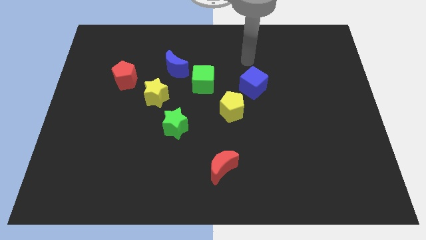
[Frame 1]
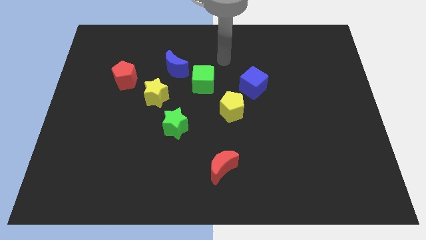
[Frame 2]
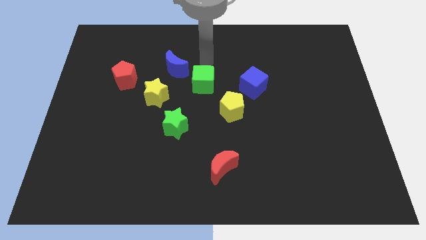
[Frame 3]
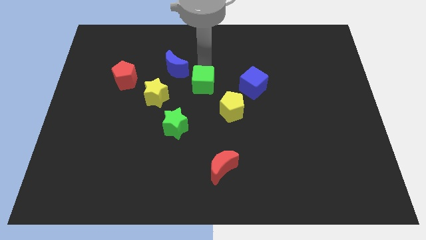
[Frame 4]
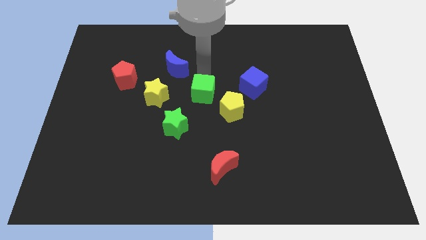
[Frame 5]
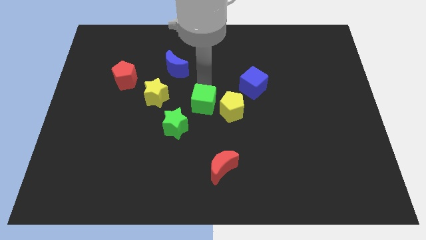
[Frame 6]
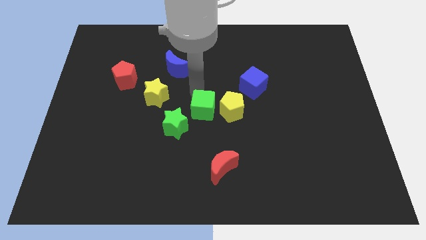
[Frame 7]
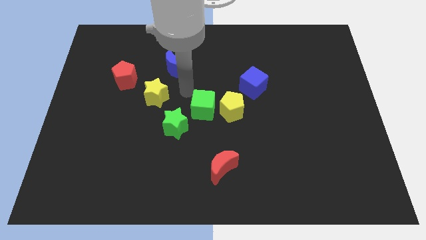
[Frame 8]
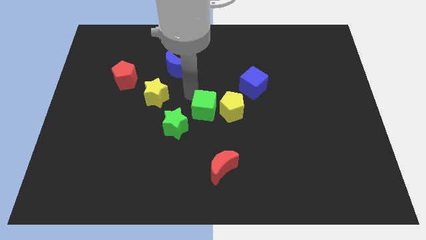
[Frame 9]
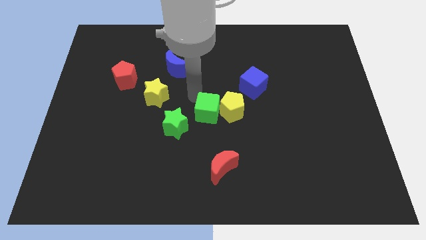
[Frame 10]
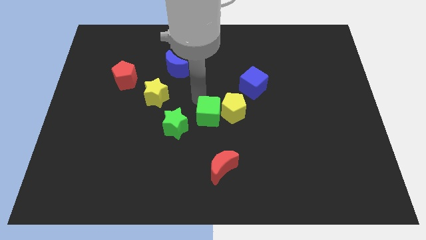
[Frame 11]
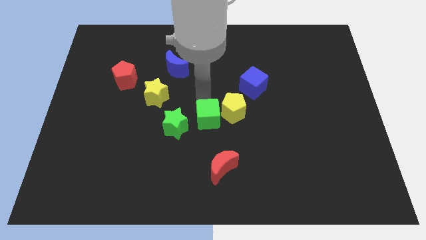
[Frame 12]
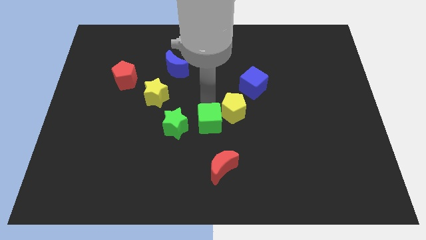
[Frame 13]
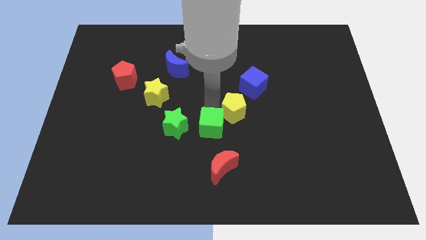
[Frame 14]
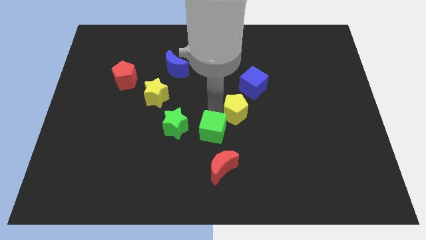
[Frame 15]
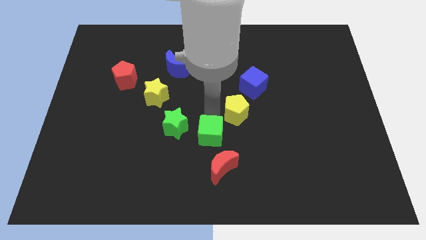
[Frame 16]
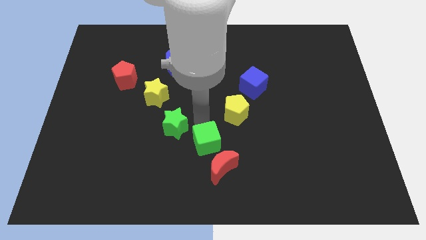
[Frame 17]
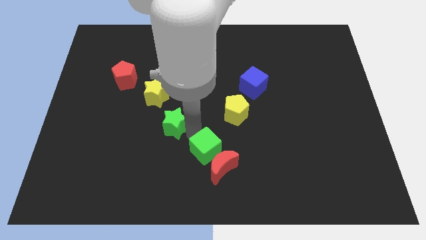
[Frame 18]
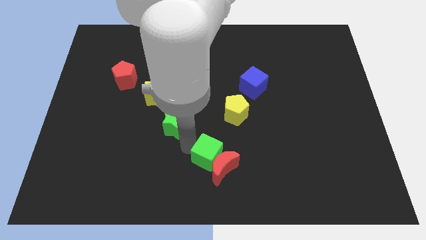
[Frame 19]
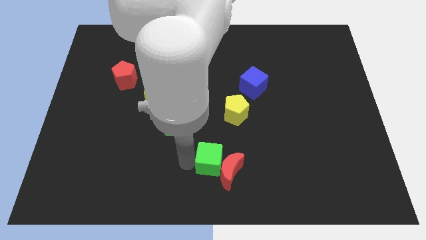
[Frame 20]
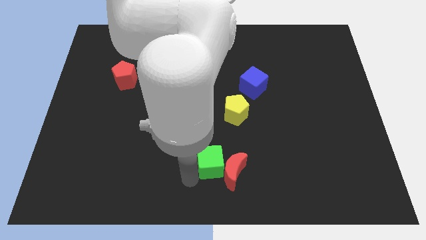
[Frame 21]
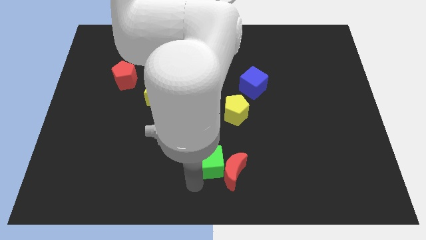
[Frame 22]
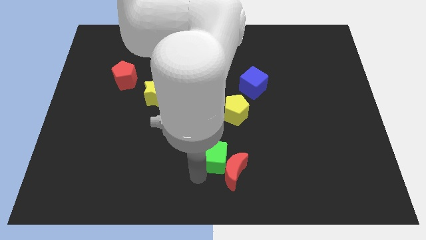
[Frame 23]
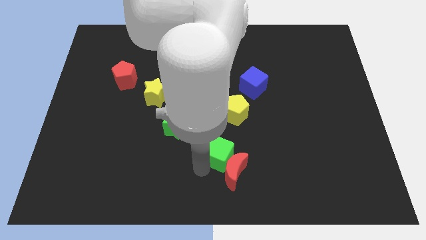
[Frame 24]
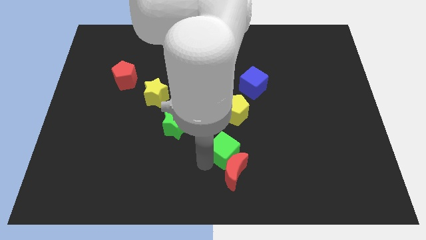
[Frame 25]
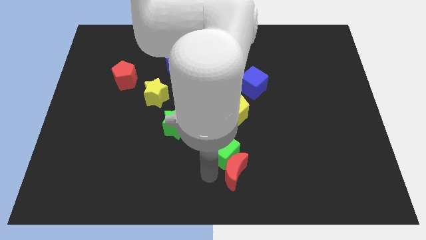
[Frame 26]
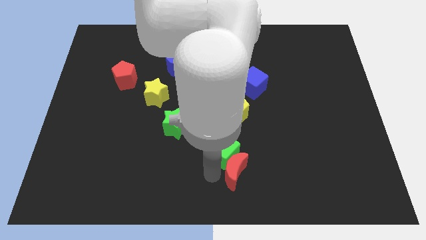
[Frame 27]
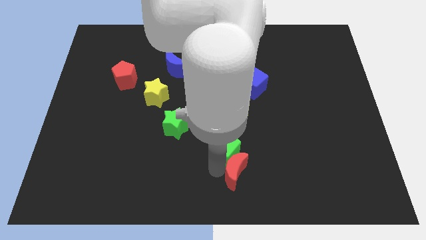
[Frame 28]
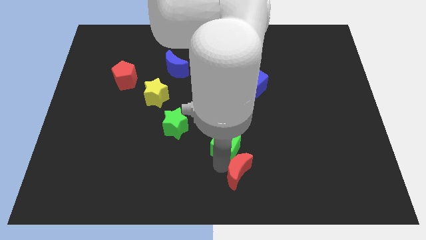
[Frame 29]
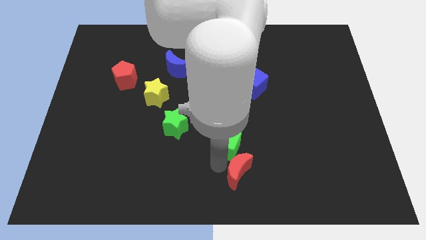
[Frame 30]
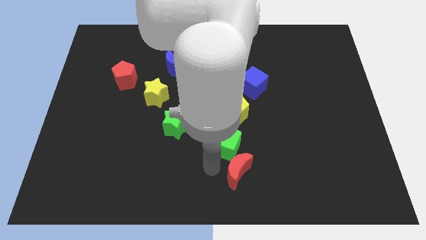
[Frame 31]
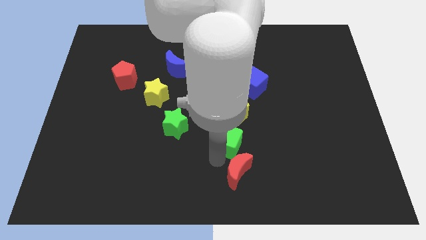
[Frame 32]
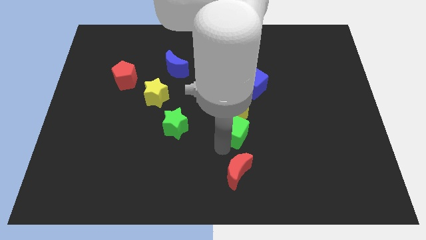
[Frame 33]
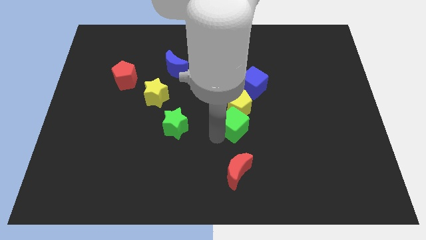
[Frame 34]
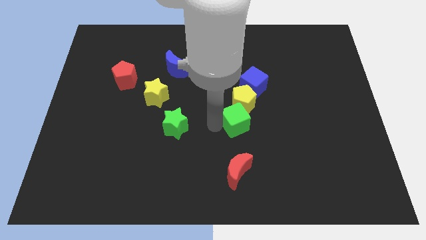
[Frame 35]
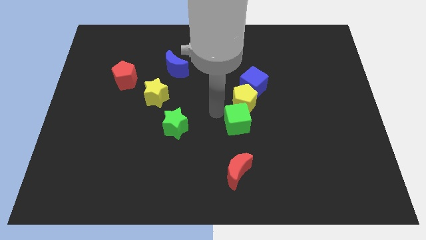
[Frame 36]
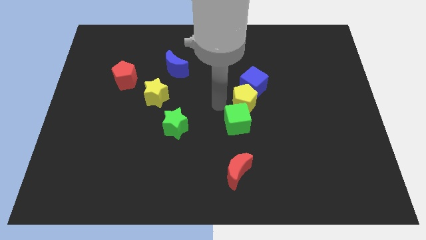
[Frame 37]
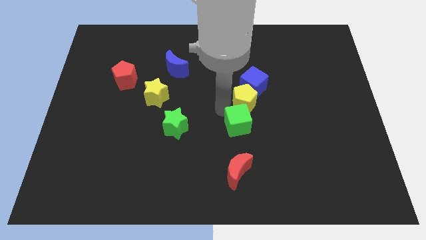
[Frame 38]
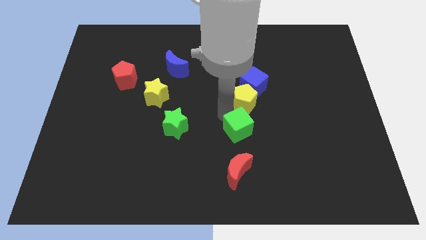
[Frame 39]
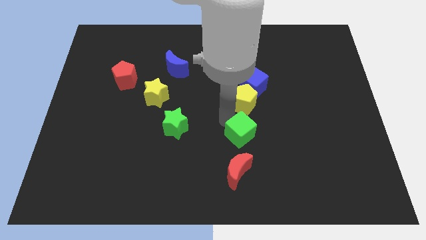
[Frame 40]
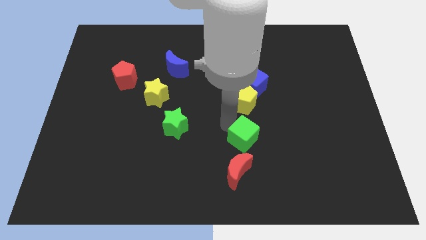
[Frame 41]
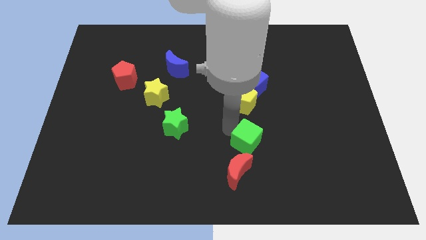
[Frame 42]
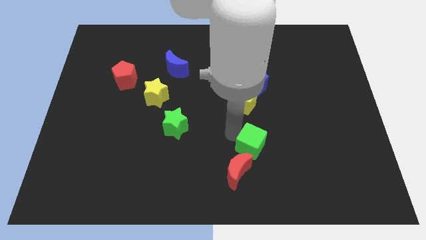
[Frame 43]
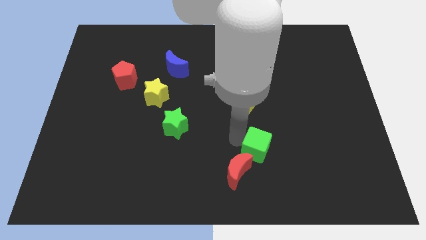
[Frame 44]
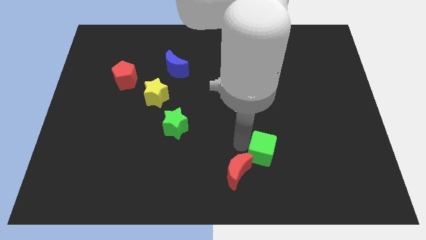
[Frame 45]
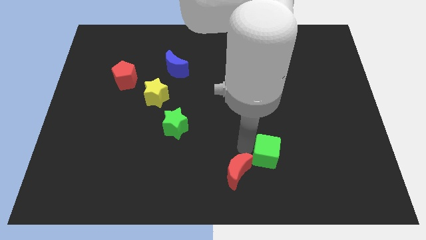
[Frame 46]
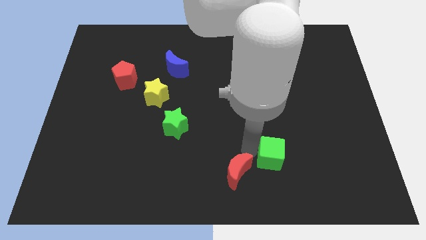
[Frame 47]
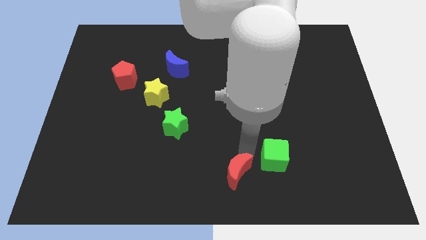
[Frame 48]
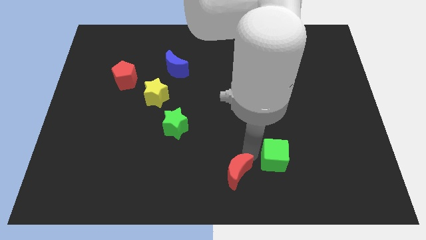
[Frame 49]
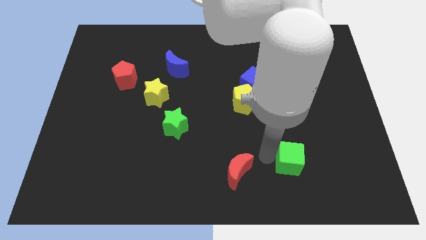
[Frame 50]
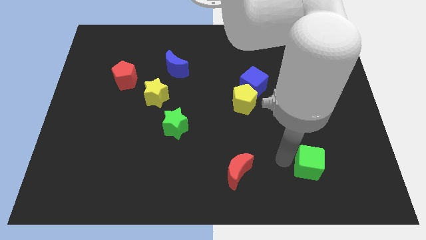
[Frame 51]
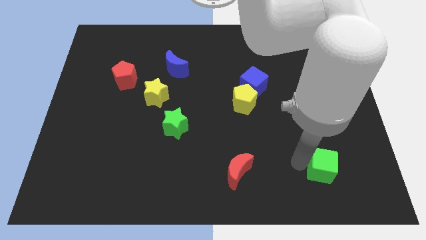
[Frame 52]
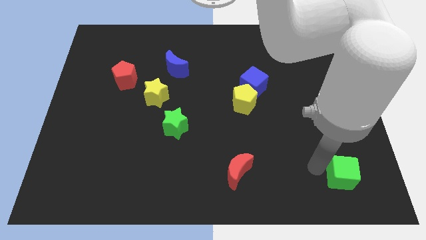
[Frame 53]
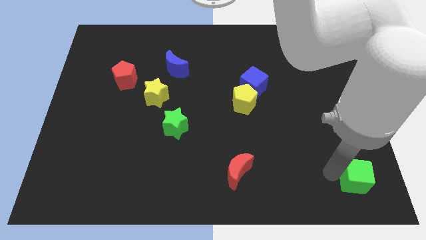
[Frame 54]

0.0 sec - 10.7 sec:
push the green cube to the bottom right corner

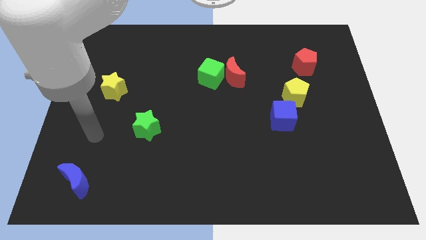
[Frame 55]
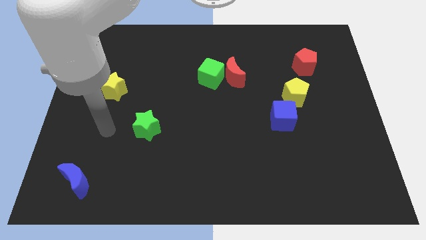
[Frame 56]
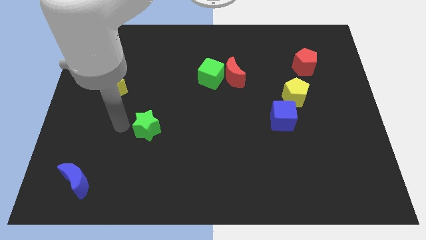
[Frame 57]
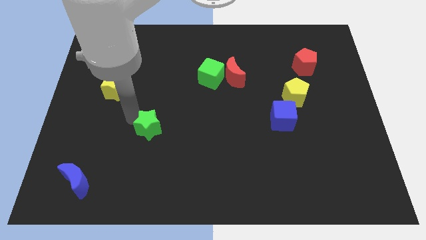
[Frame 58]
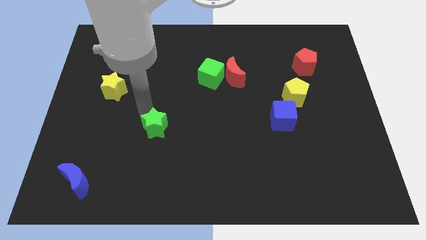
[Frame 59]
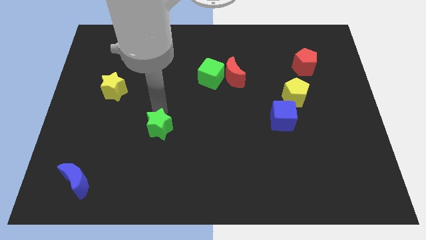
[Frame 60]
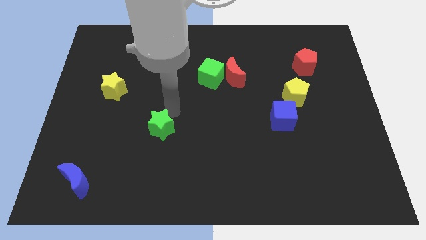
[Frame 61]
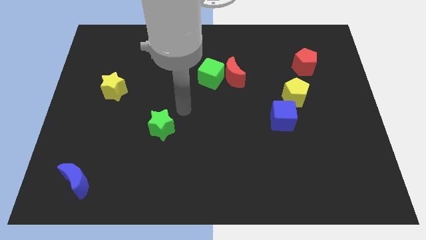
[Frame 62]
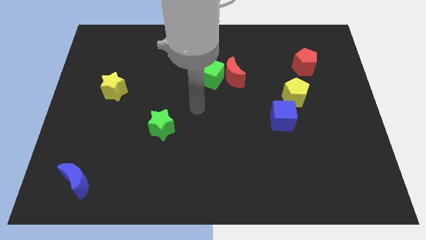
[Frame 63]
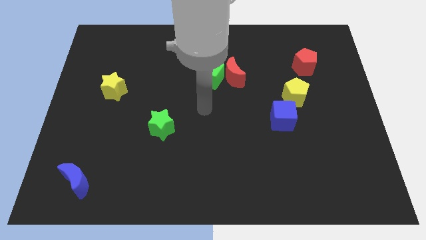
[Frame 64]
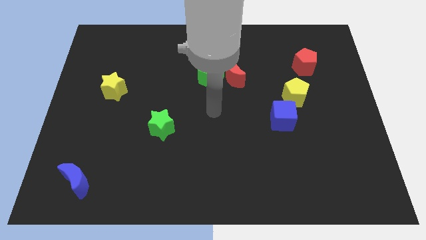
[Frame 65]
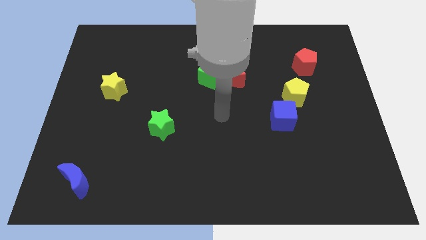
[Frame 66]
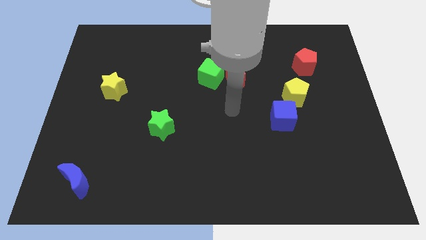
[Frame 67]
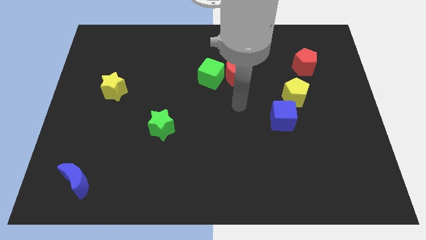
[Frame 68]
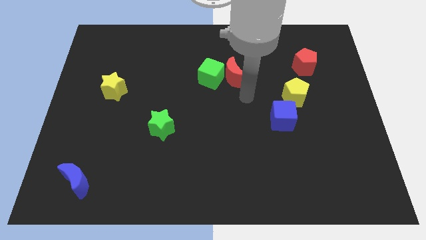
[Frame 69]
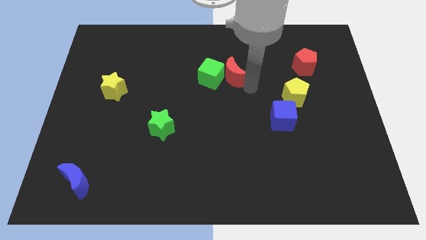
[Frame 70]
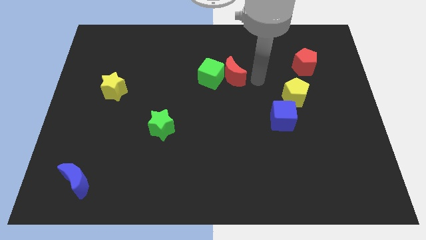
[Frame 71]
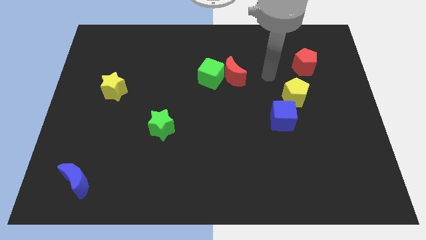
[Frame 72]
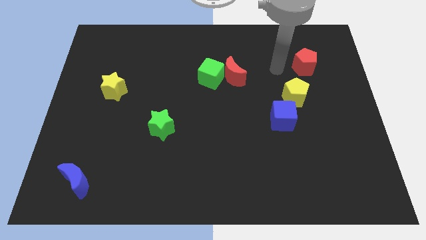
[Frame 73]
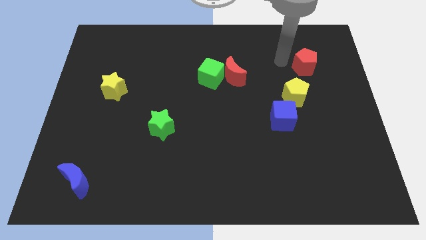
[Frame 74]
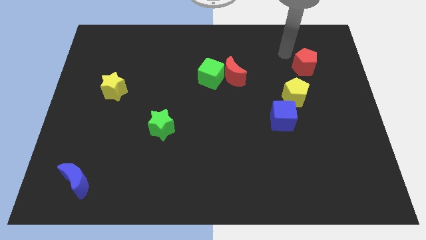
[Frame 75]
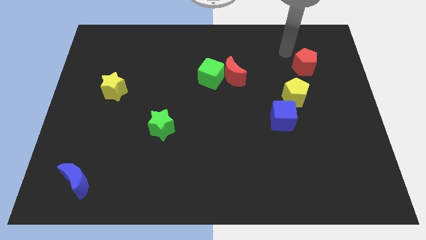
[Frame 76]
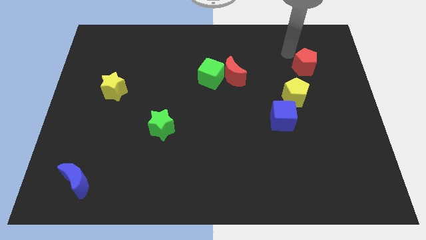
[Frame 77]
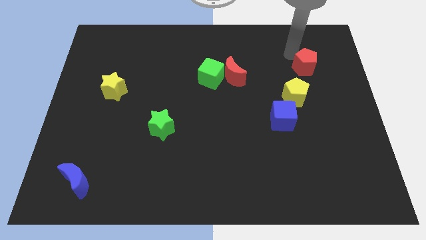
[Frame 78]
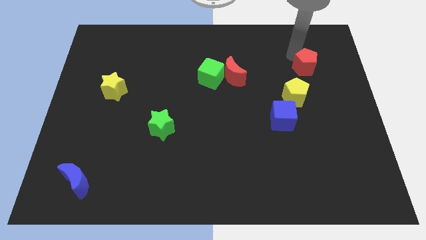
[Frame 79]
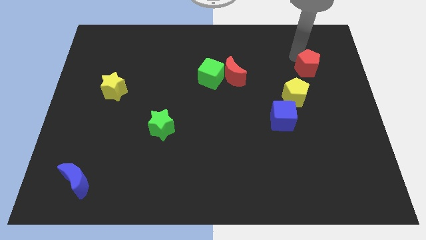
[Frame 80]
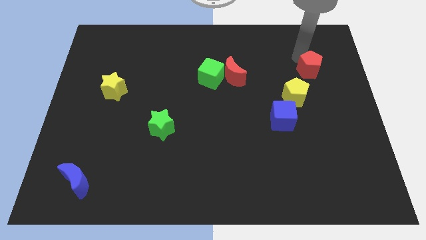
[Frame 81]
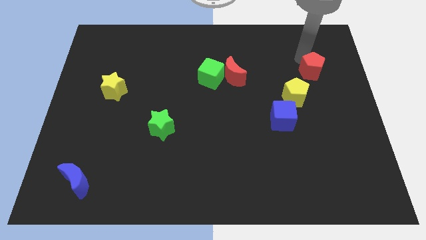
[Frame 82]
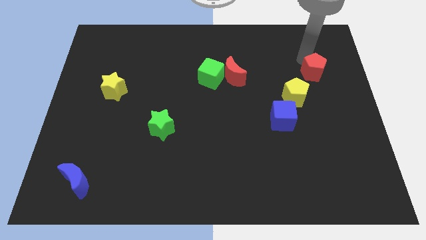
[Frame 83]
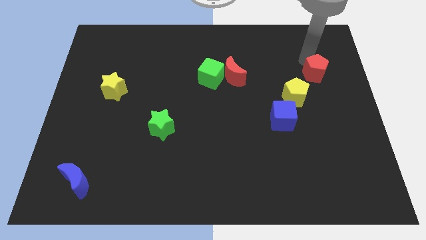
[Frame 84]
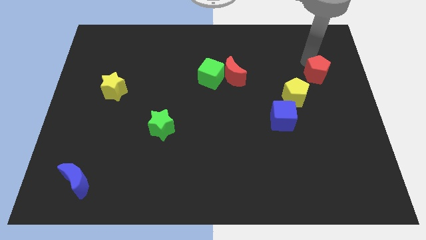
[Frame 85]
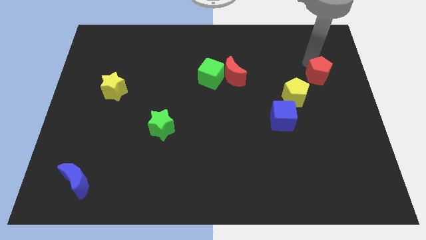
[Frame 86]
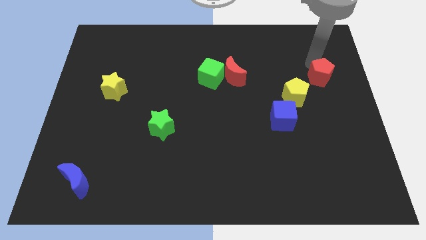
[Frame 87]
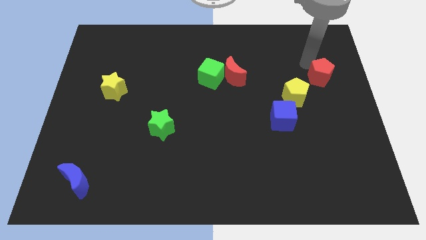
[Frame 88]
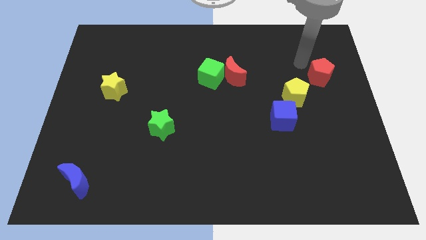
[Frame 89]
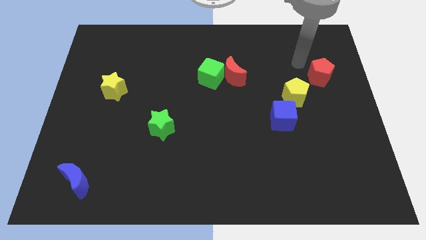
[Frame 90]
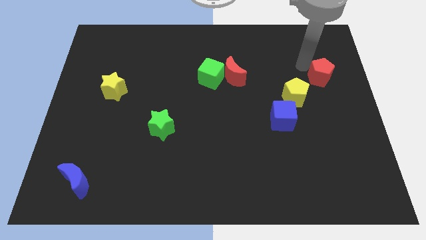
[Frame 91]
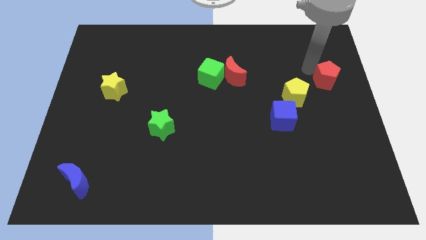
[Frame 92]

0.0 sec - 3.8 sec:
slide the red pentagon to the right side of the board
